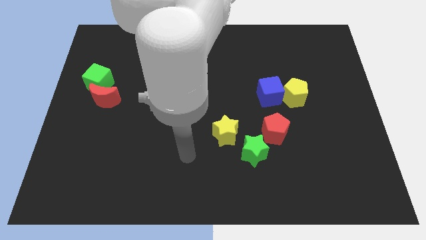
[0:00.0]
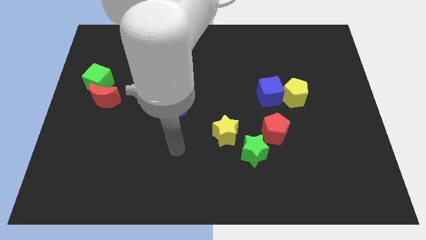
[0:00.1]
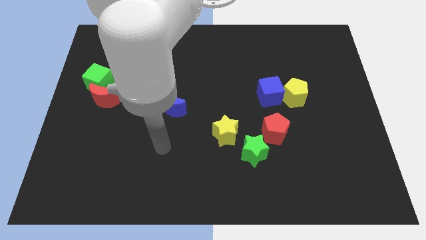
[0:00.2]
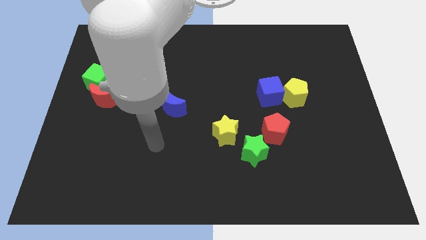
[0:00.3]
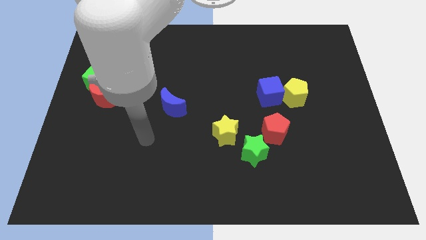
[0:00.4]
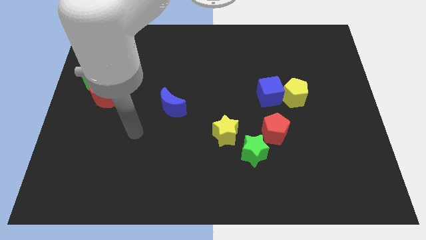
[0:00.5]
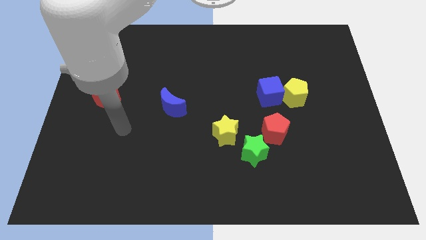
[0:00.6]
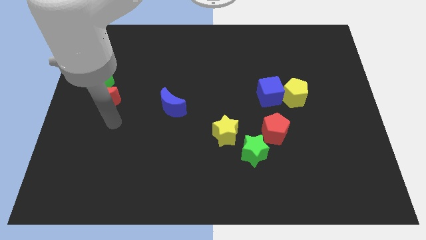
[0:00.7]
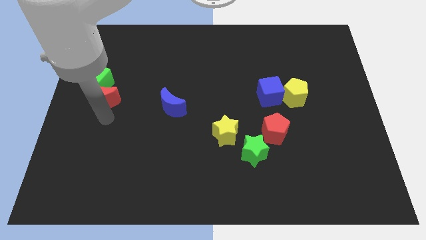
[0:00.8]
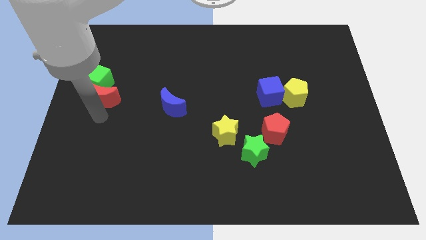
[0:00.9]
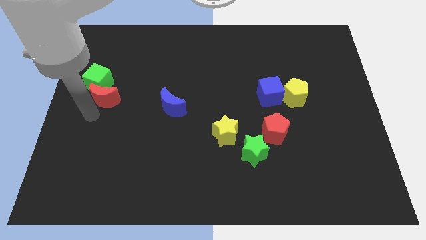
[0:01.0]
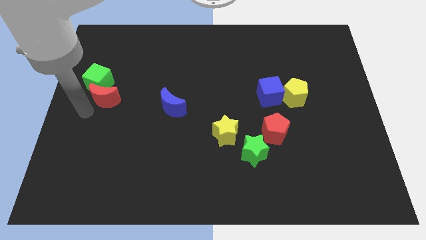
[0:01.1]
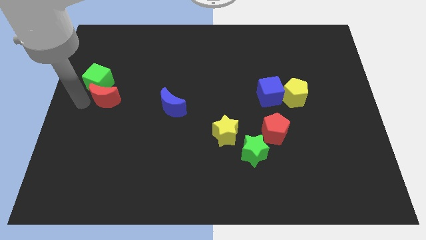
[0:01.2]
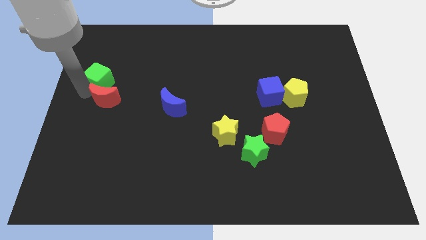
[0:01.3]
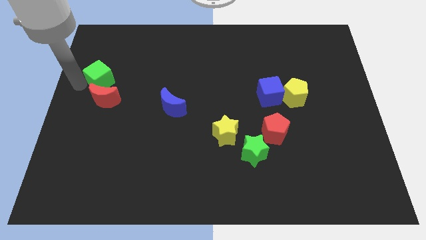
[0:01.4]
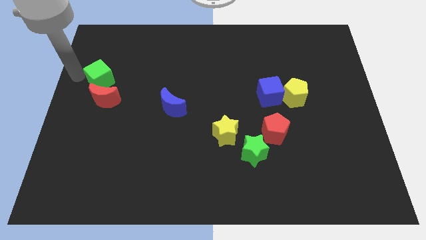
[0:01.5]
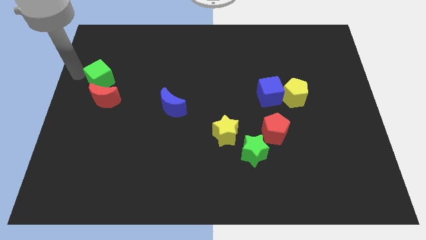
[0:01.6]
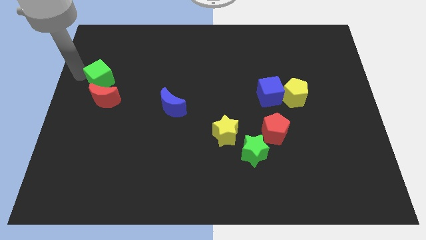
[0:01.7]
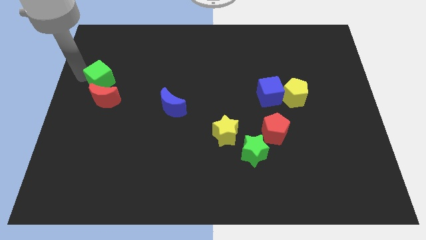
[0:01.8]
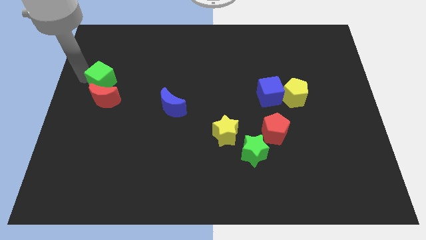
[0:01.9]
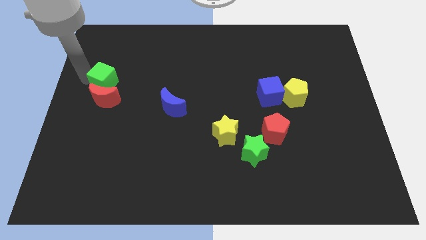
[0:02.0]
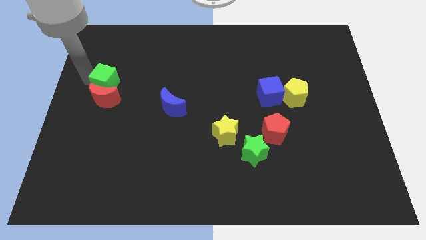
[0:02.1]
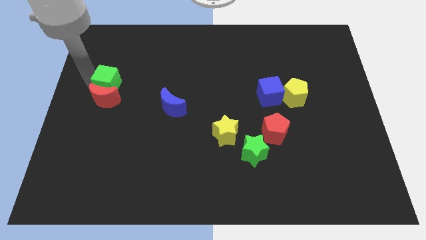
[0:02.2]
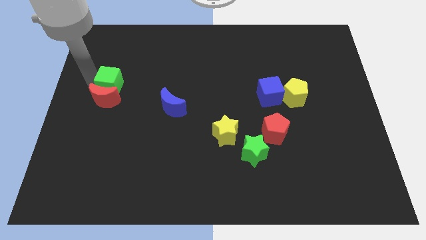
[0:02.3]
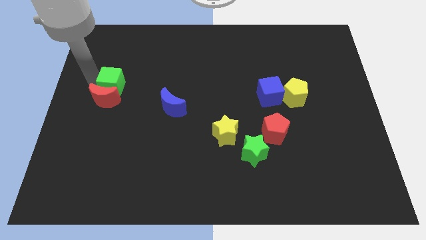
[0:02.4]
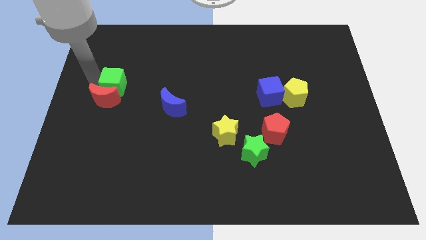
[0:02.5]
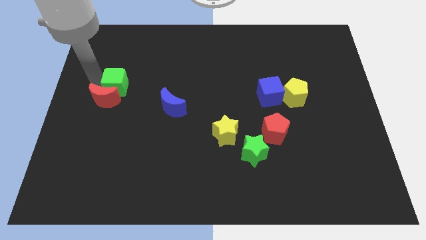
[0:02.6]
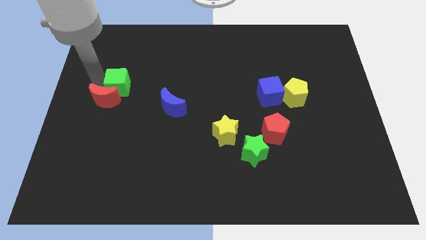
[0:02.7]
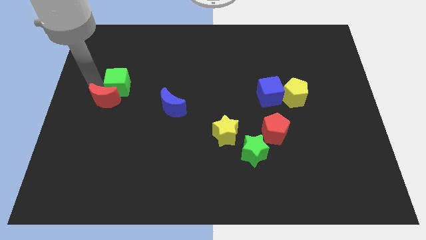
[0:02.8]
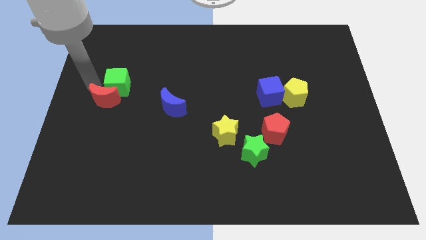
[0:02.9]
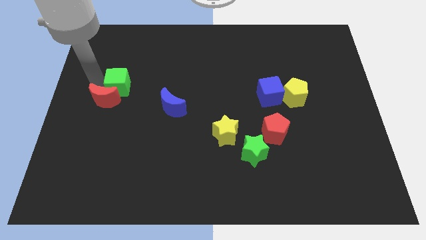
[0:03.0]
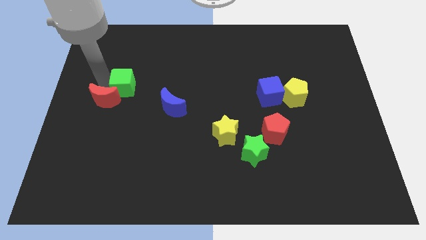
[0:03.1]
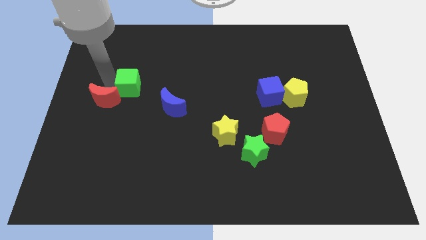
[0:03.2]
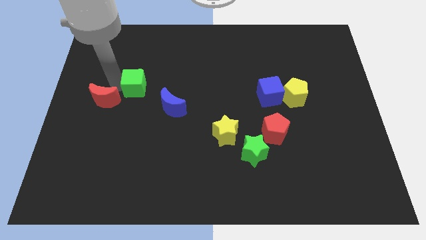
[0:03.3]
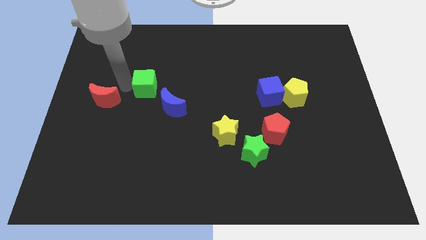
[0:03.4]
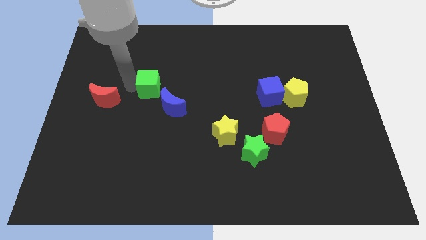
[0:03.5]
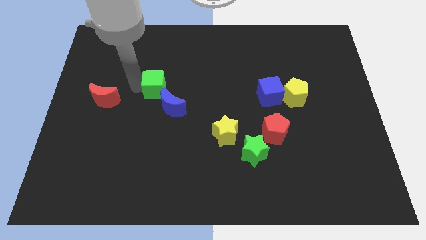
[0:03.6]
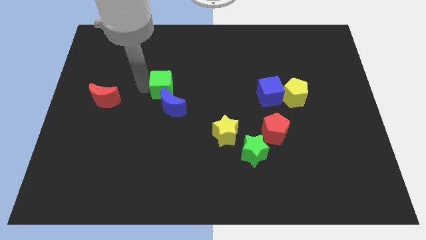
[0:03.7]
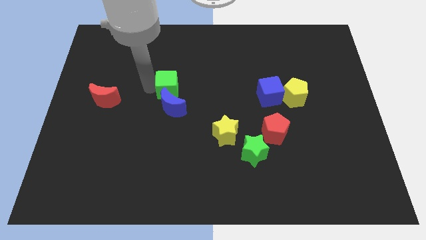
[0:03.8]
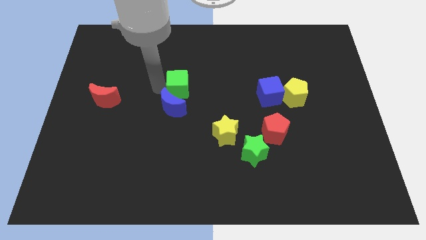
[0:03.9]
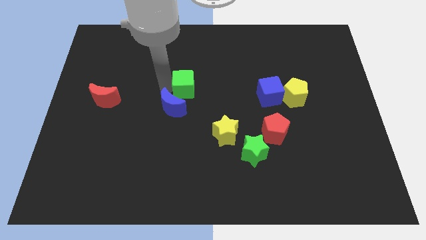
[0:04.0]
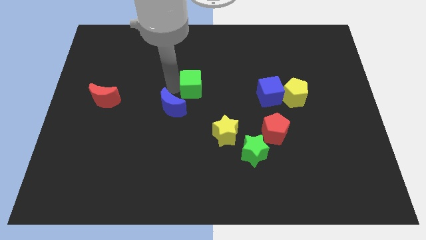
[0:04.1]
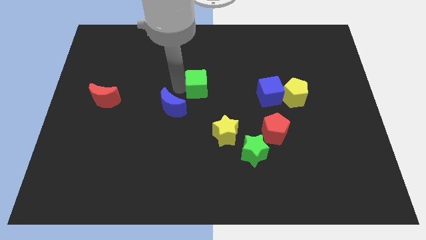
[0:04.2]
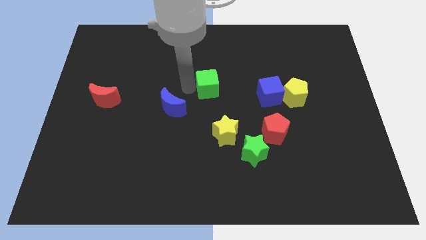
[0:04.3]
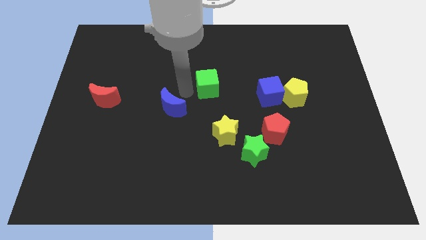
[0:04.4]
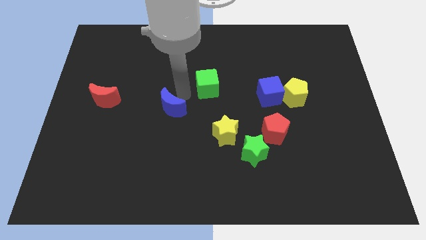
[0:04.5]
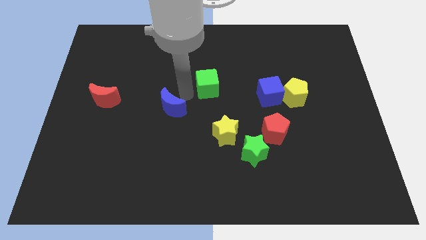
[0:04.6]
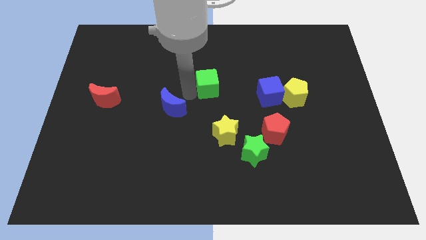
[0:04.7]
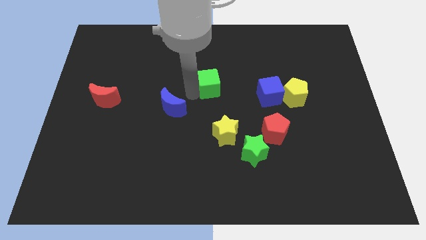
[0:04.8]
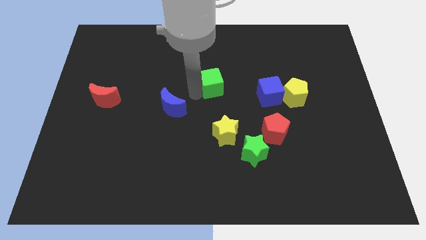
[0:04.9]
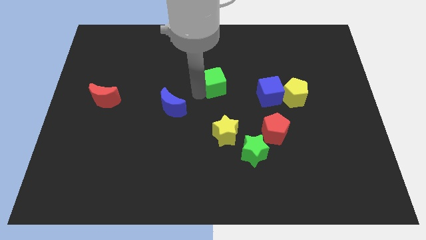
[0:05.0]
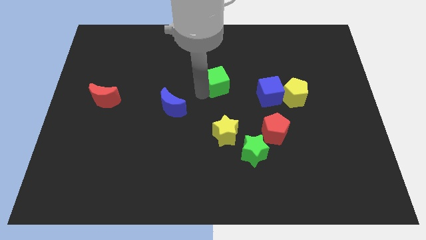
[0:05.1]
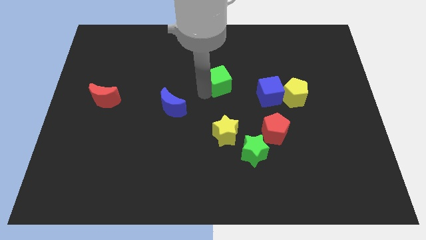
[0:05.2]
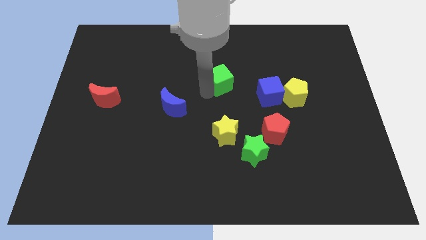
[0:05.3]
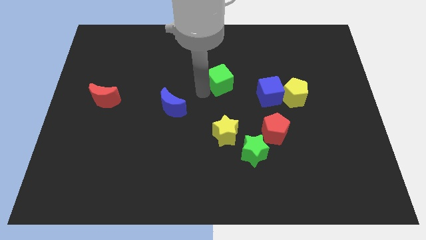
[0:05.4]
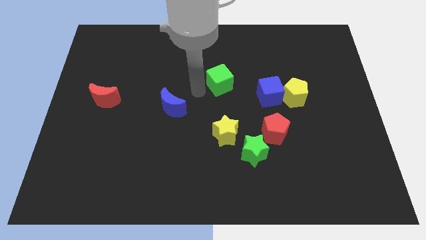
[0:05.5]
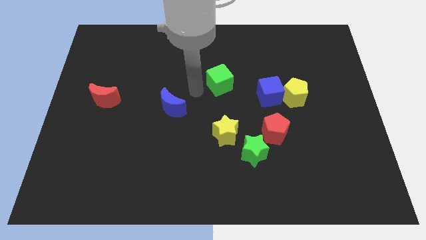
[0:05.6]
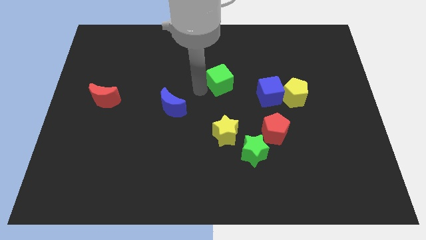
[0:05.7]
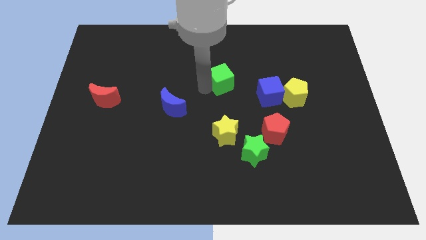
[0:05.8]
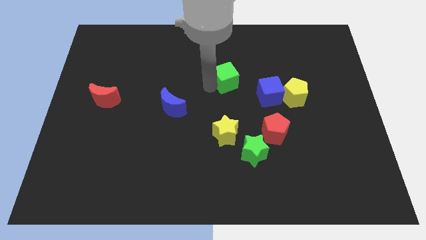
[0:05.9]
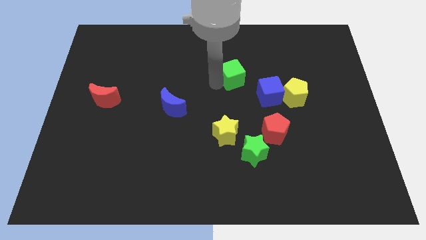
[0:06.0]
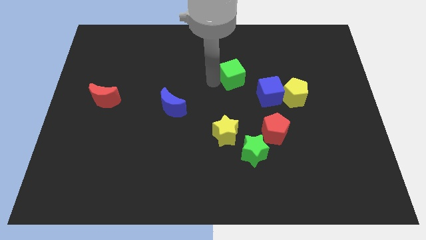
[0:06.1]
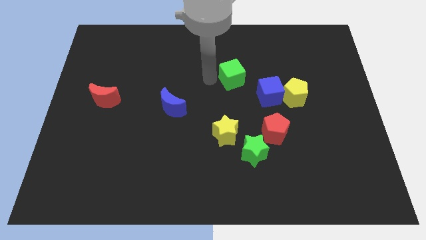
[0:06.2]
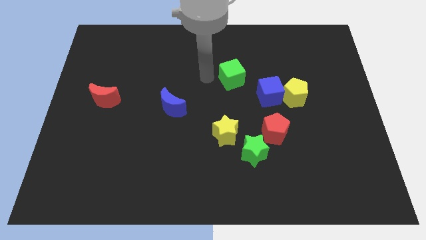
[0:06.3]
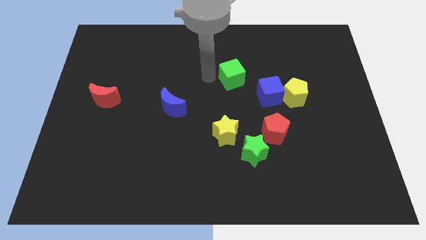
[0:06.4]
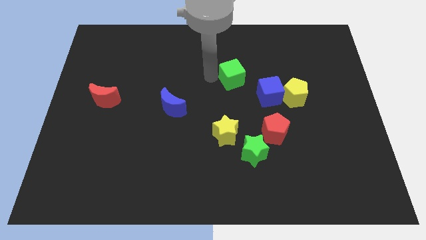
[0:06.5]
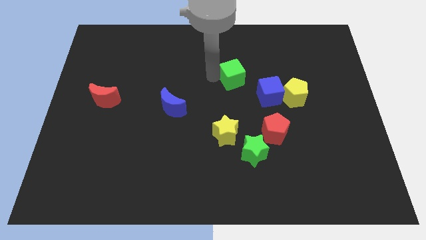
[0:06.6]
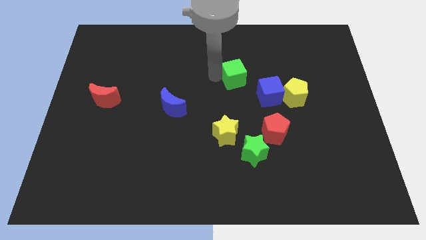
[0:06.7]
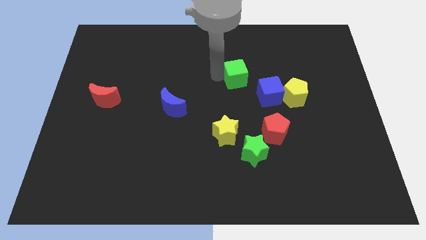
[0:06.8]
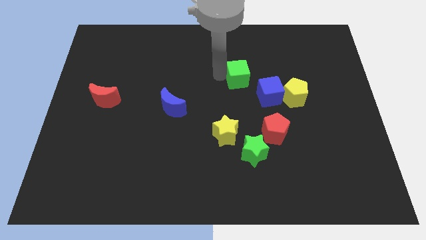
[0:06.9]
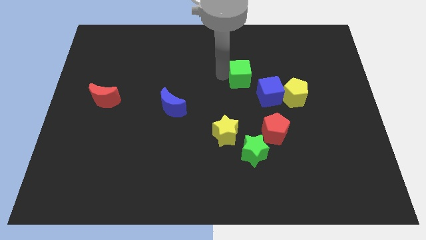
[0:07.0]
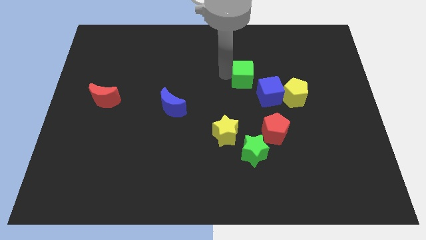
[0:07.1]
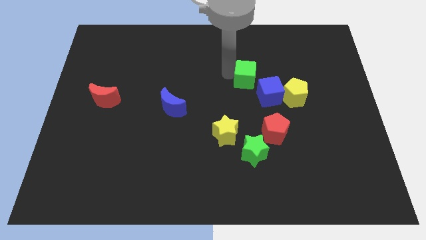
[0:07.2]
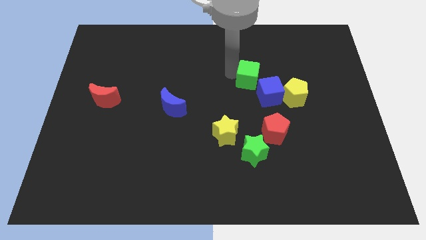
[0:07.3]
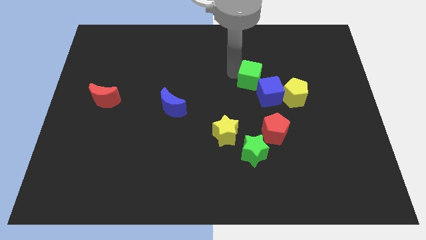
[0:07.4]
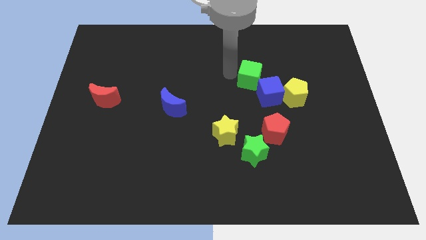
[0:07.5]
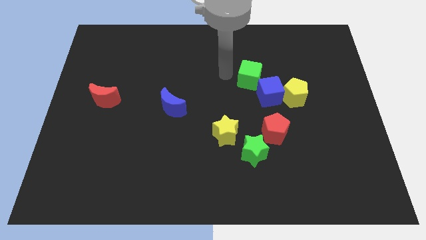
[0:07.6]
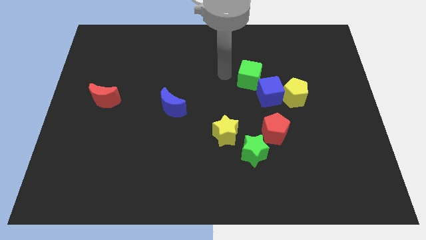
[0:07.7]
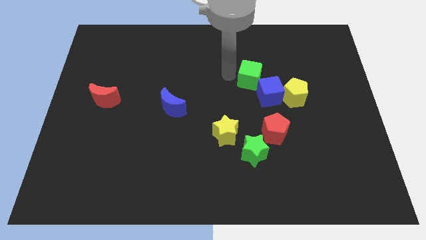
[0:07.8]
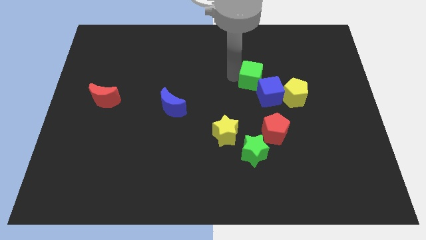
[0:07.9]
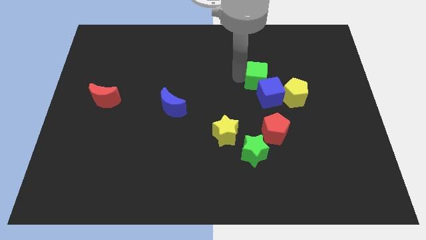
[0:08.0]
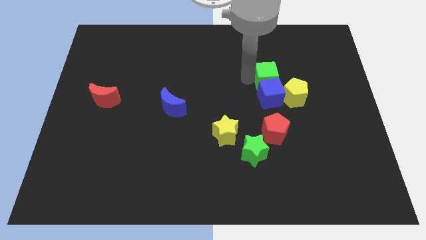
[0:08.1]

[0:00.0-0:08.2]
put the green cube diagonally up and to the right of the blue cube
